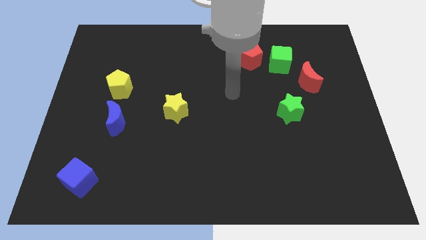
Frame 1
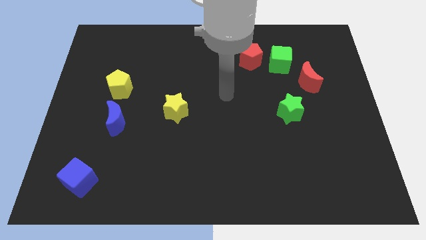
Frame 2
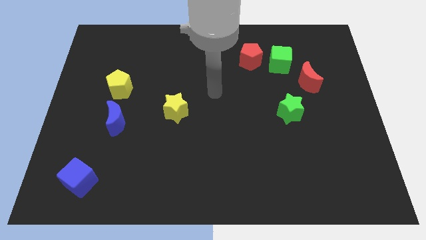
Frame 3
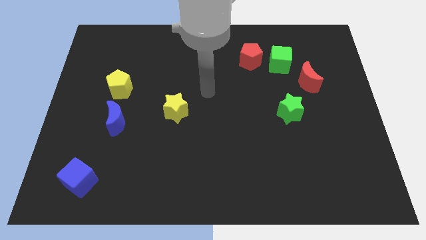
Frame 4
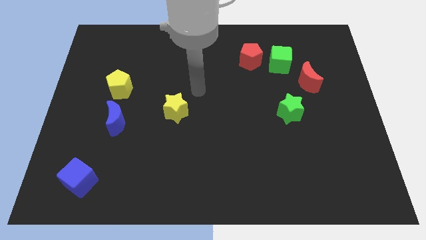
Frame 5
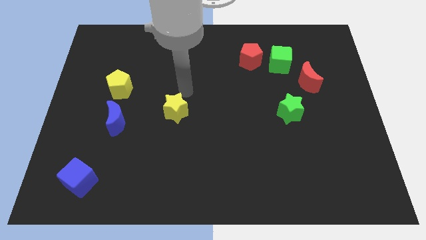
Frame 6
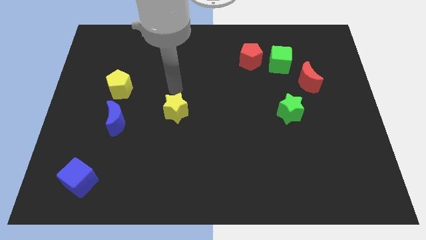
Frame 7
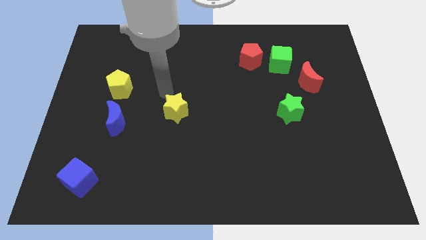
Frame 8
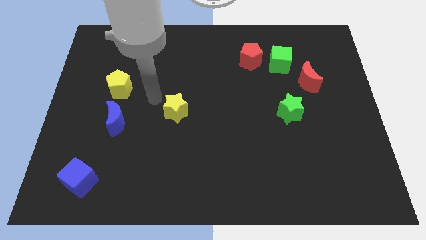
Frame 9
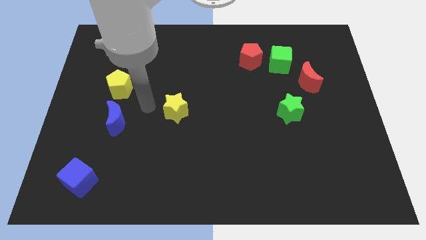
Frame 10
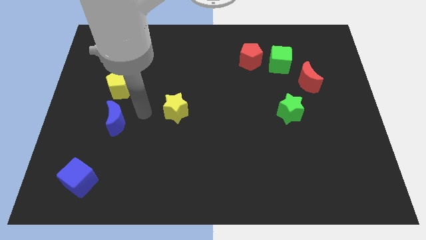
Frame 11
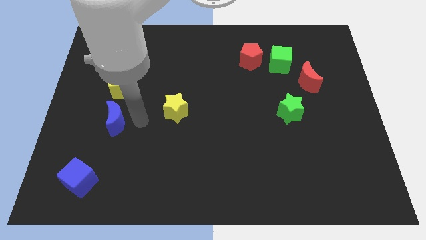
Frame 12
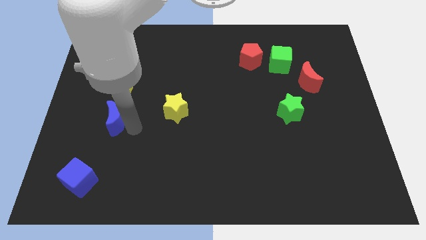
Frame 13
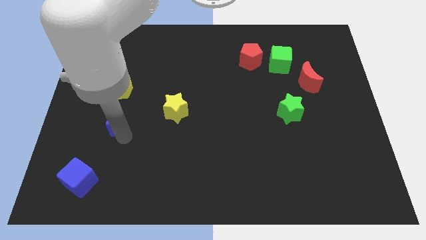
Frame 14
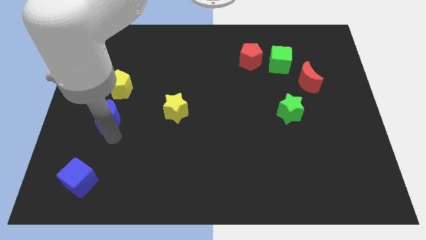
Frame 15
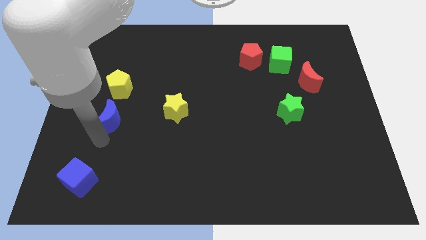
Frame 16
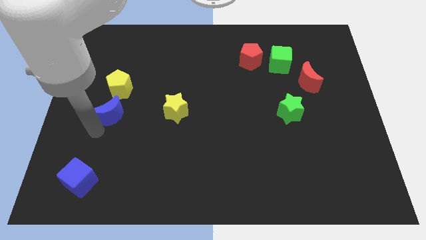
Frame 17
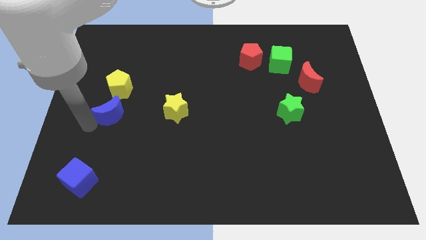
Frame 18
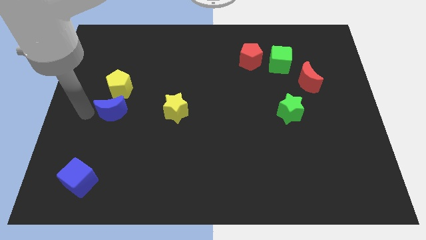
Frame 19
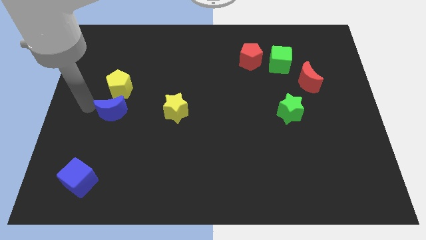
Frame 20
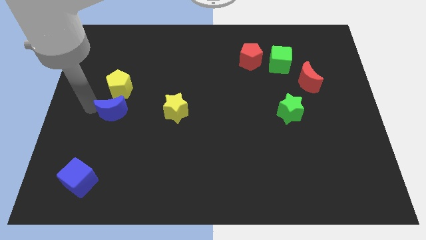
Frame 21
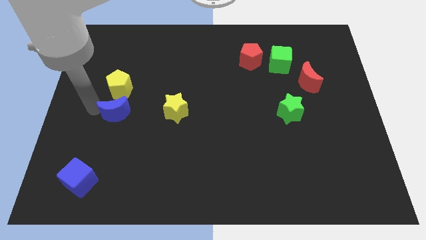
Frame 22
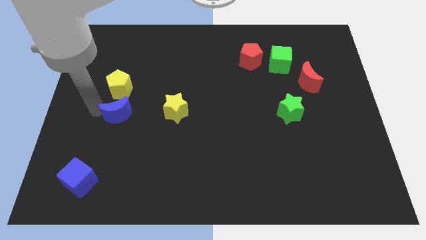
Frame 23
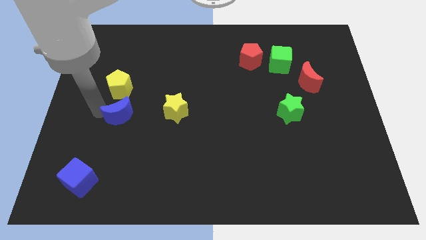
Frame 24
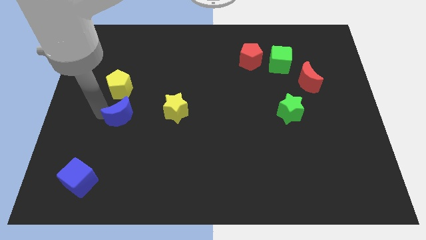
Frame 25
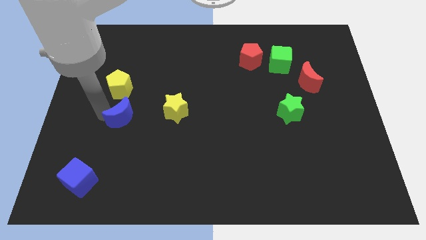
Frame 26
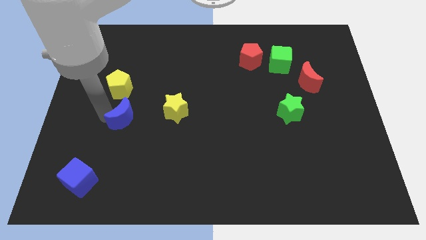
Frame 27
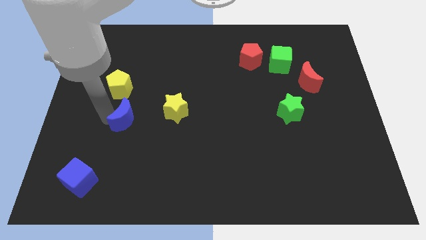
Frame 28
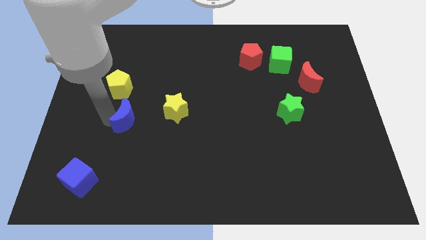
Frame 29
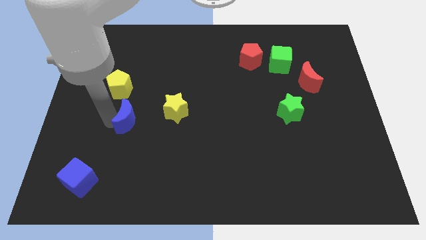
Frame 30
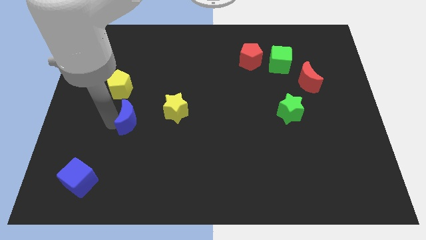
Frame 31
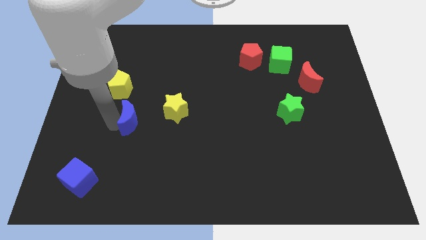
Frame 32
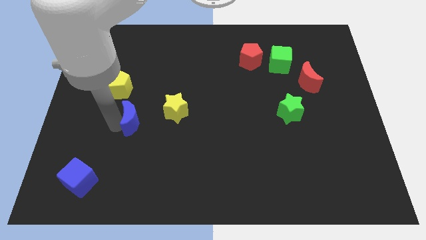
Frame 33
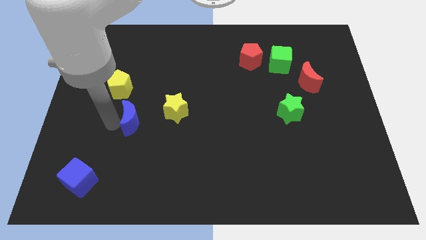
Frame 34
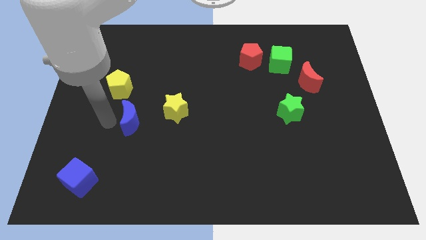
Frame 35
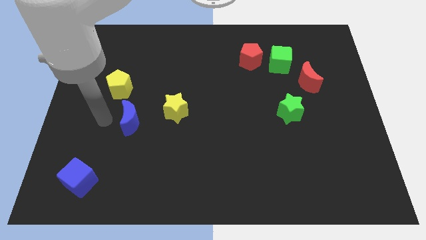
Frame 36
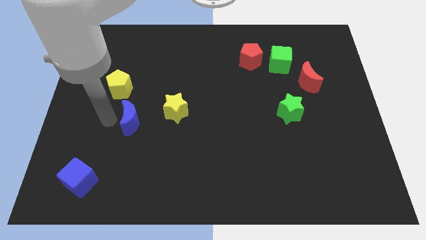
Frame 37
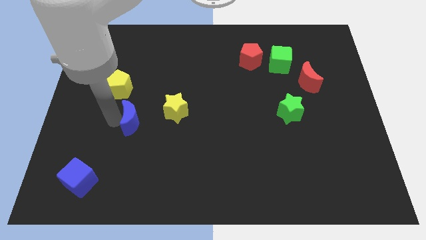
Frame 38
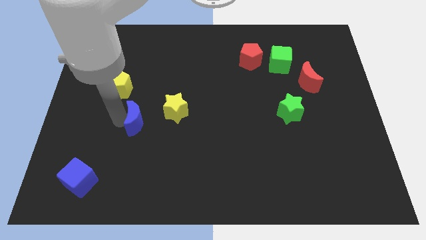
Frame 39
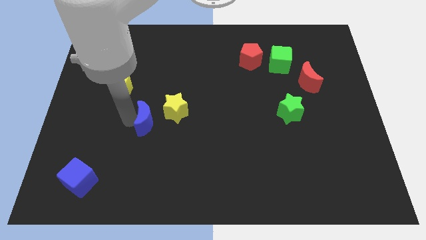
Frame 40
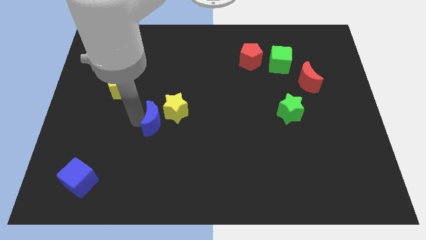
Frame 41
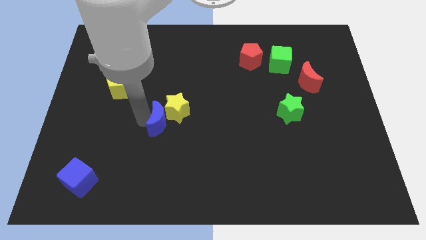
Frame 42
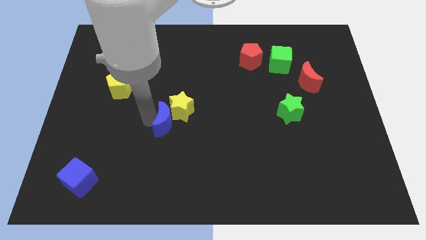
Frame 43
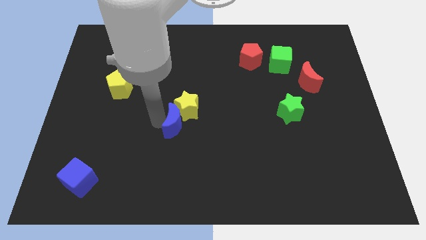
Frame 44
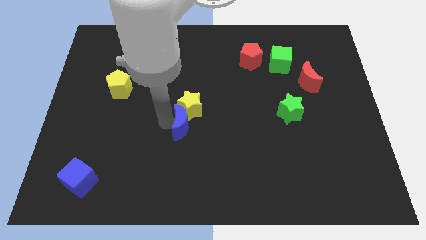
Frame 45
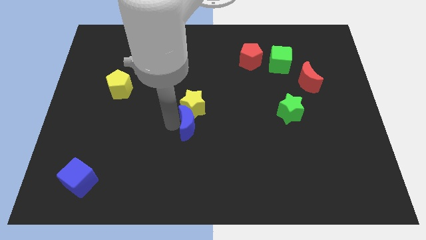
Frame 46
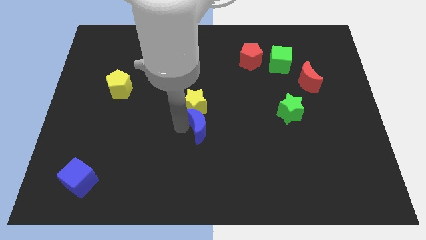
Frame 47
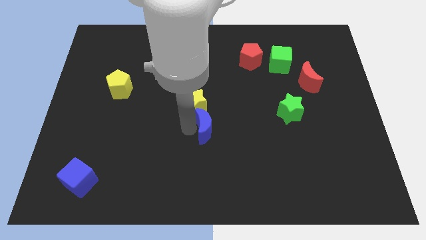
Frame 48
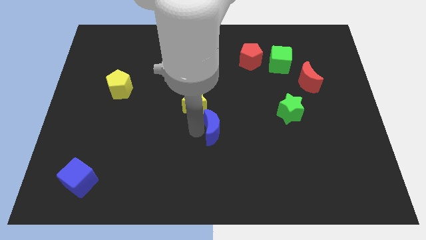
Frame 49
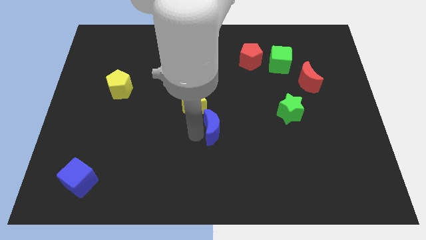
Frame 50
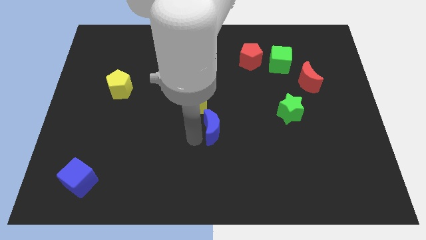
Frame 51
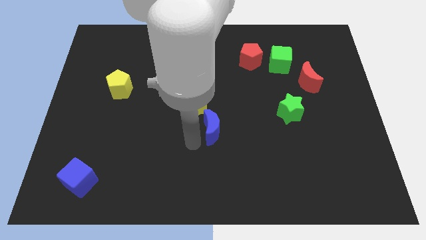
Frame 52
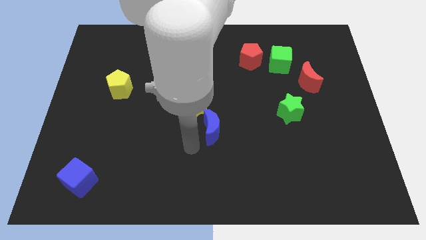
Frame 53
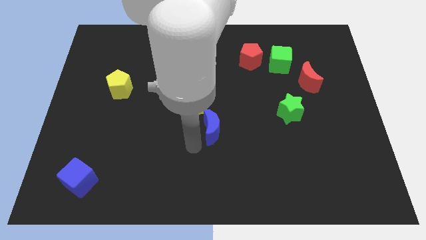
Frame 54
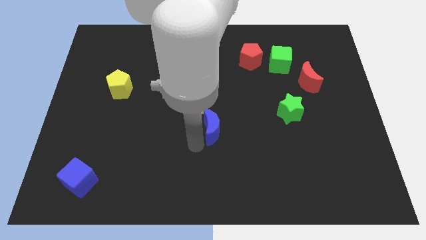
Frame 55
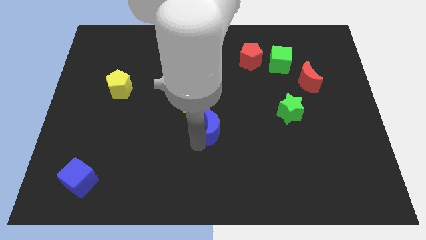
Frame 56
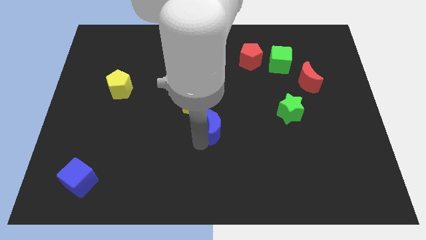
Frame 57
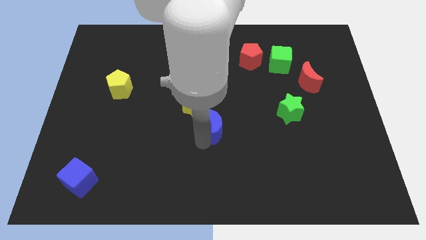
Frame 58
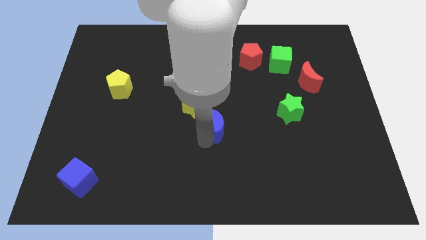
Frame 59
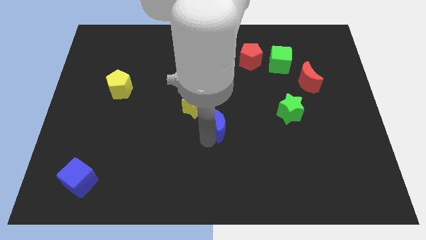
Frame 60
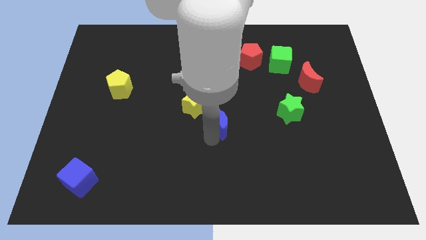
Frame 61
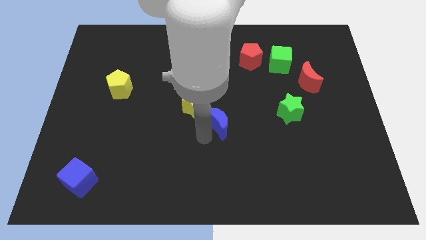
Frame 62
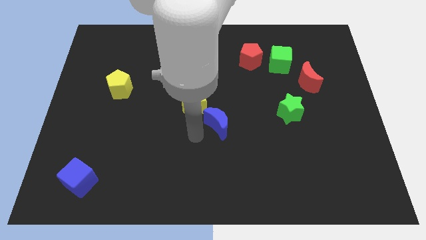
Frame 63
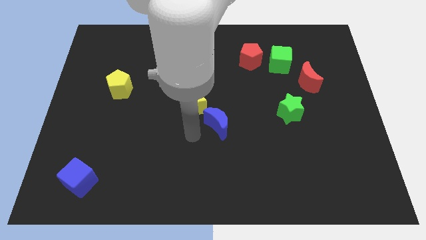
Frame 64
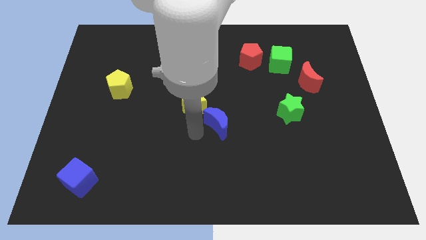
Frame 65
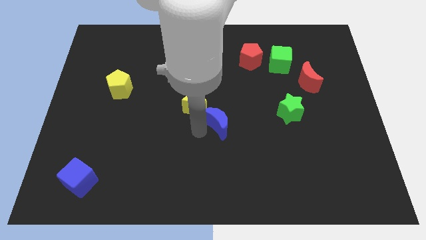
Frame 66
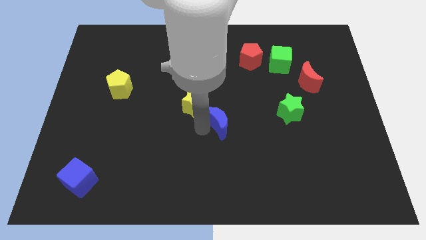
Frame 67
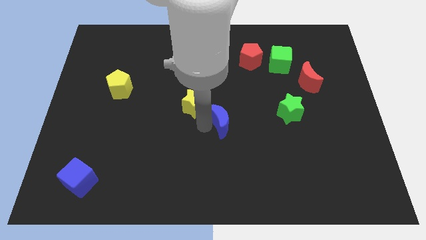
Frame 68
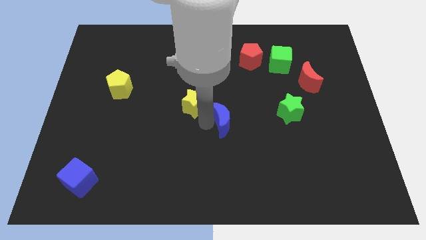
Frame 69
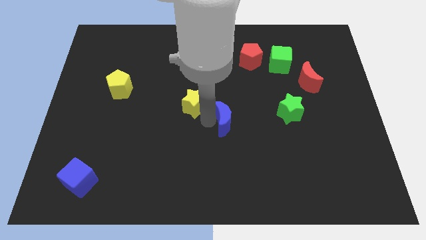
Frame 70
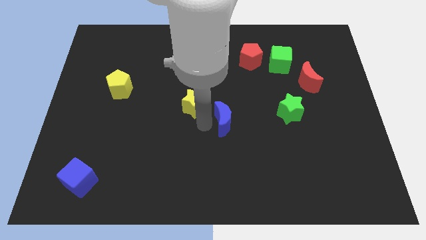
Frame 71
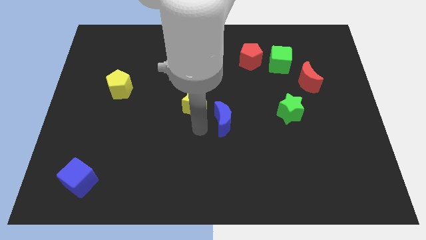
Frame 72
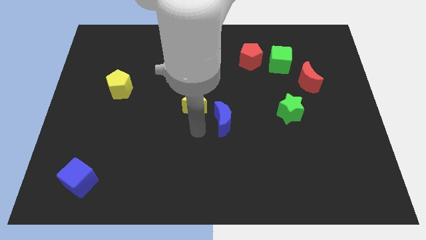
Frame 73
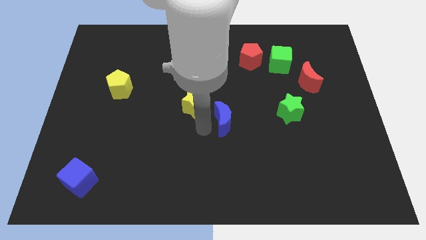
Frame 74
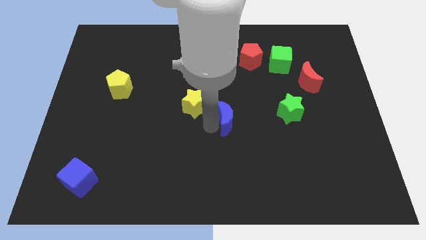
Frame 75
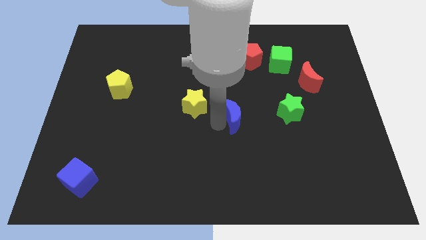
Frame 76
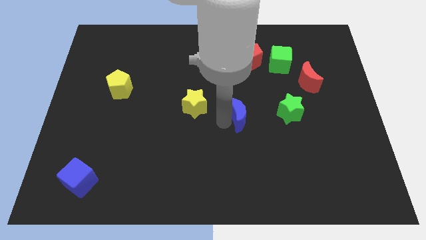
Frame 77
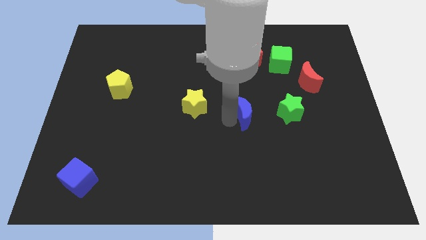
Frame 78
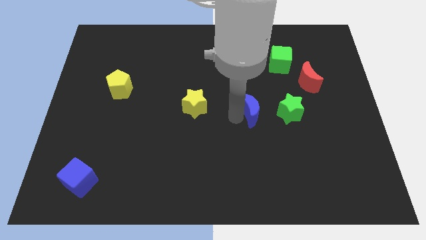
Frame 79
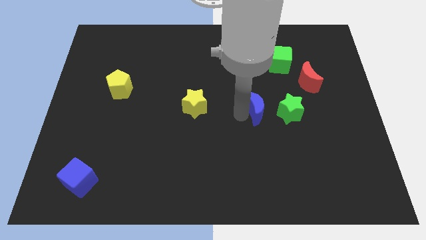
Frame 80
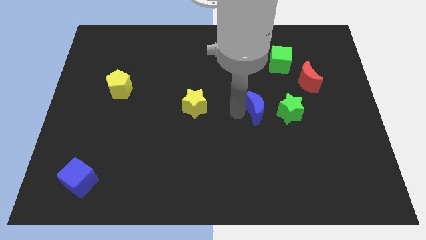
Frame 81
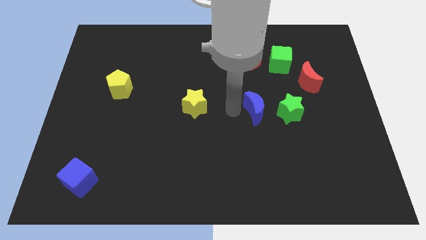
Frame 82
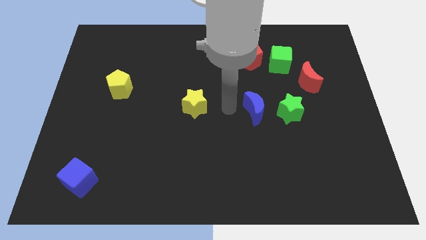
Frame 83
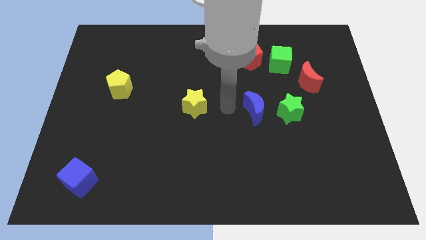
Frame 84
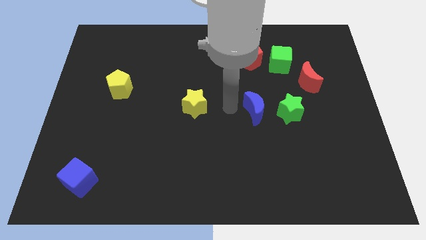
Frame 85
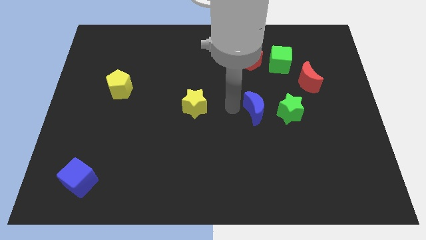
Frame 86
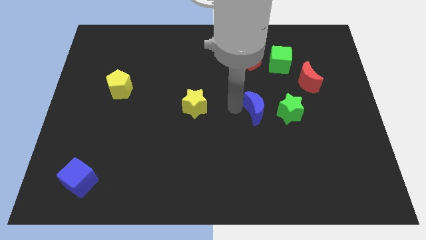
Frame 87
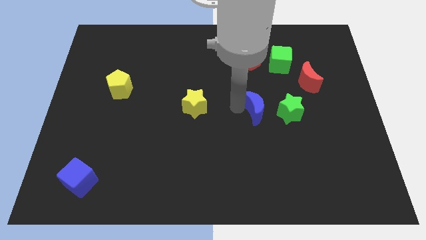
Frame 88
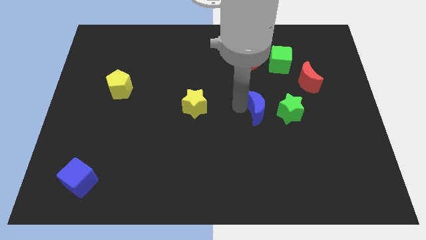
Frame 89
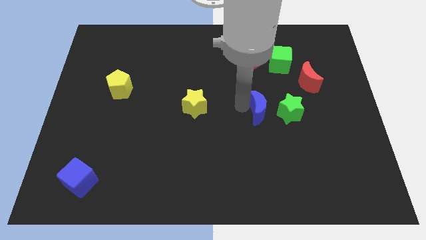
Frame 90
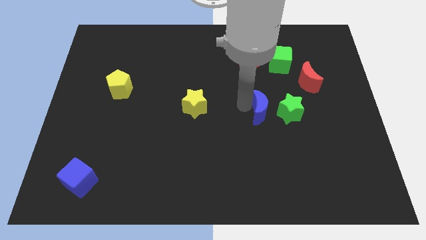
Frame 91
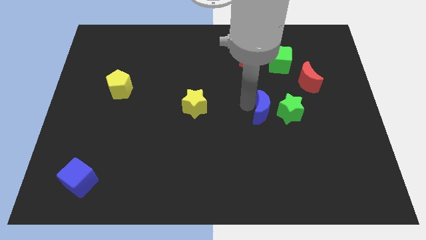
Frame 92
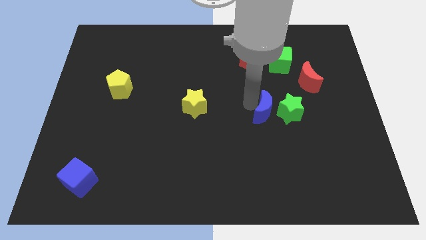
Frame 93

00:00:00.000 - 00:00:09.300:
push the blue moon next to the green star
